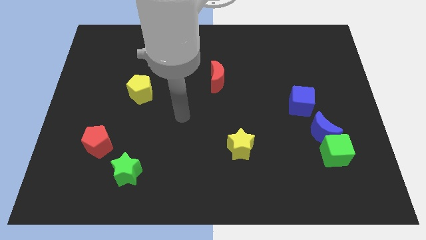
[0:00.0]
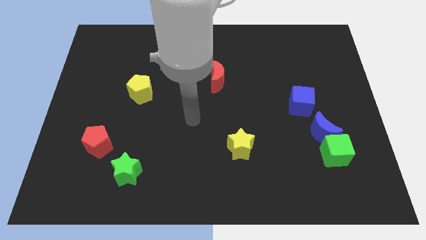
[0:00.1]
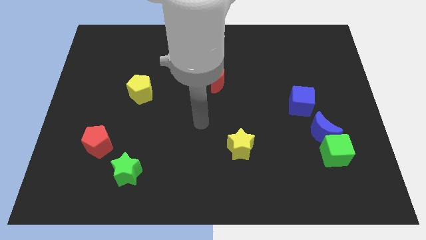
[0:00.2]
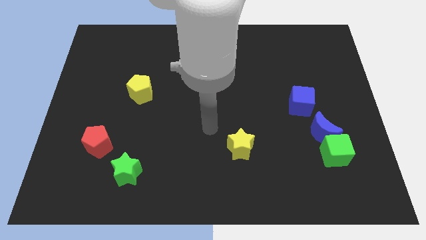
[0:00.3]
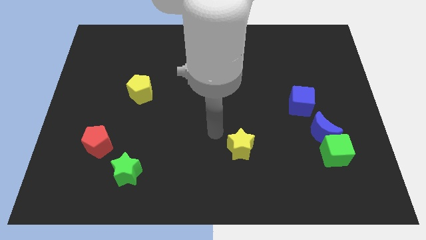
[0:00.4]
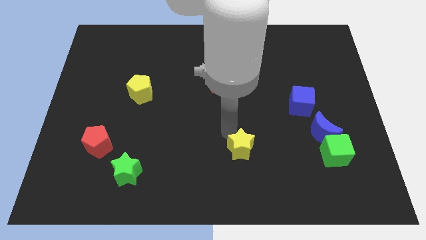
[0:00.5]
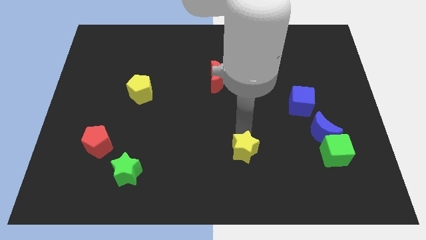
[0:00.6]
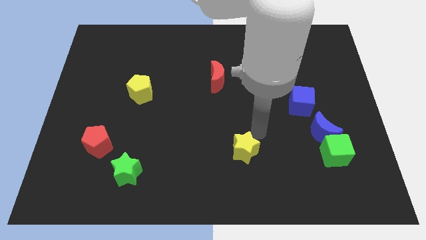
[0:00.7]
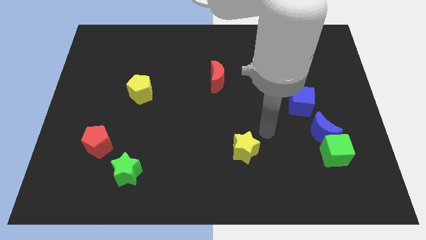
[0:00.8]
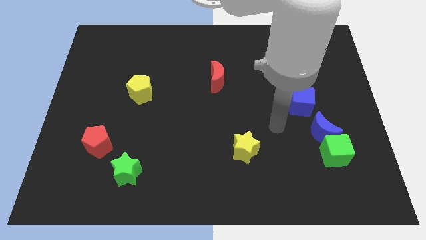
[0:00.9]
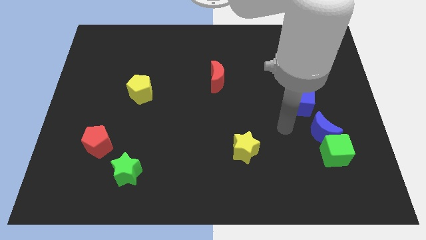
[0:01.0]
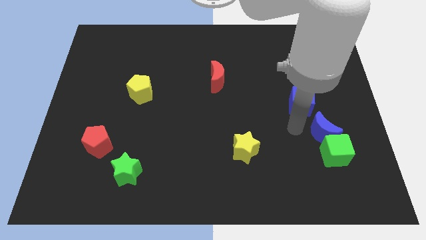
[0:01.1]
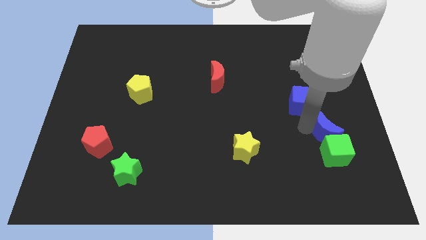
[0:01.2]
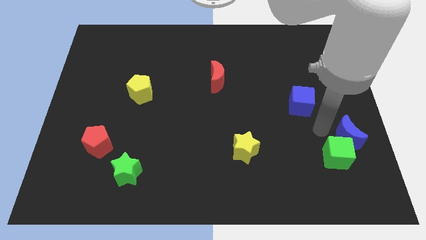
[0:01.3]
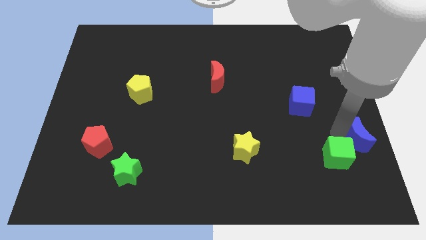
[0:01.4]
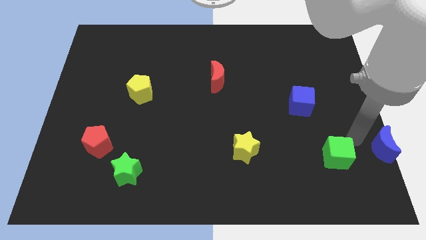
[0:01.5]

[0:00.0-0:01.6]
move the green cube away from the blue moon

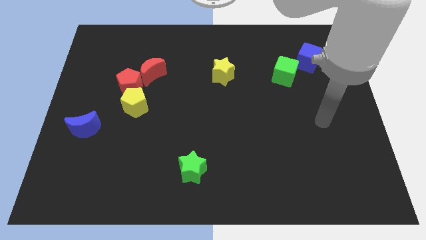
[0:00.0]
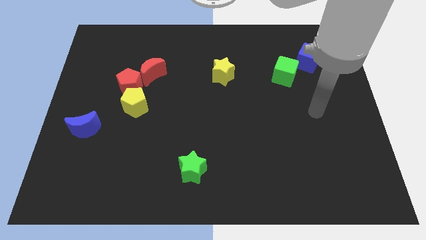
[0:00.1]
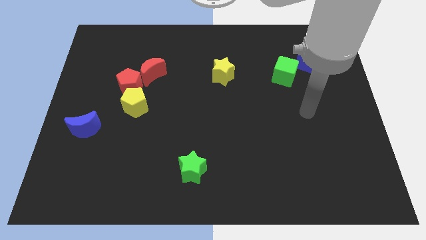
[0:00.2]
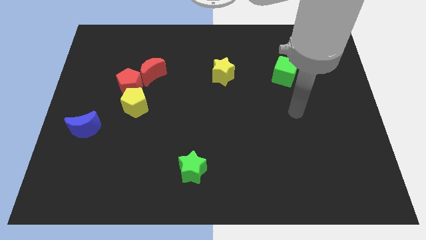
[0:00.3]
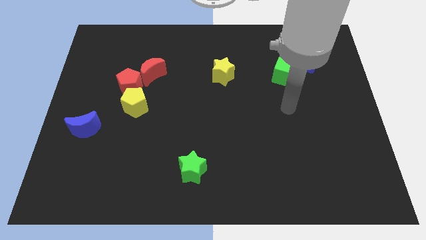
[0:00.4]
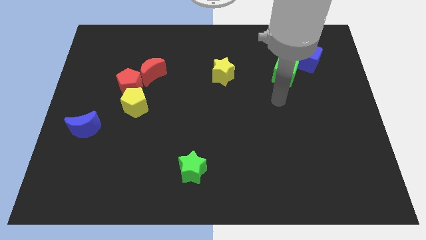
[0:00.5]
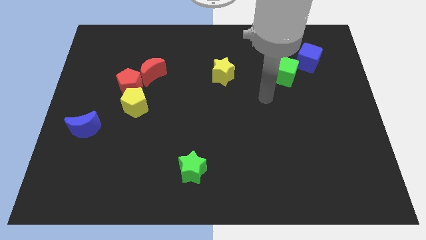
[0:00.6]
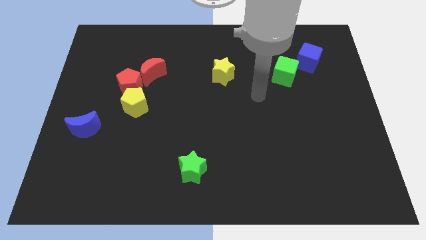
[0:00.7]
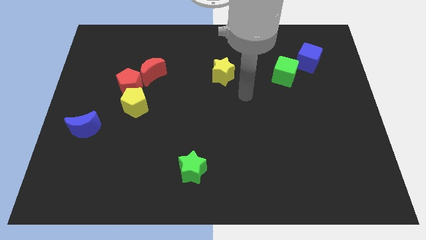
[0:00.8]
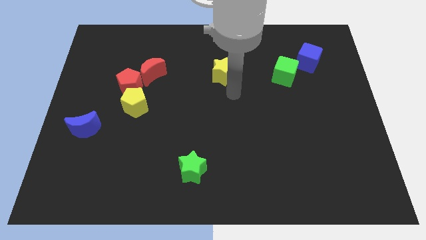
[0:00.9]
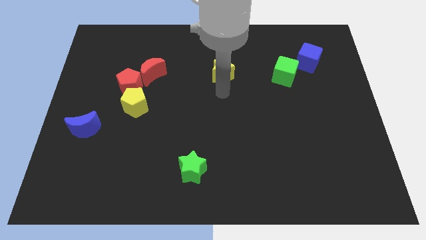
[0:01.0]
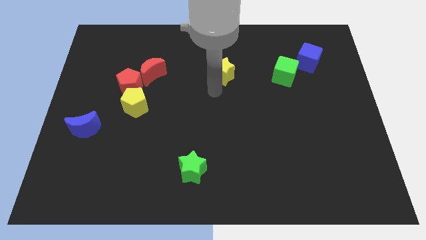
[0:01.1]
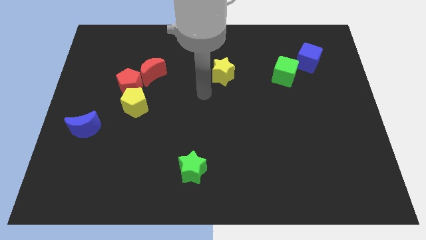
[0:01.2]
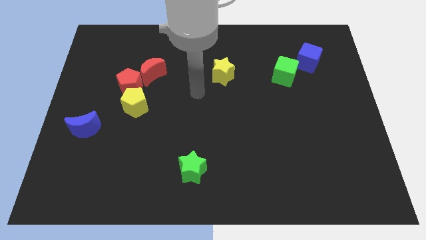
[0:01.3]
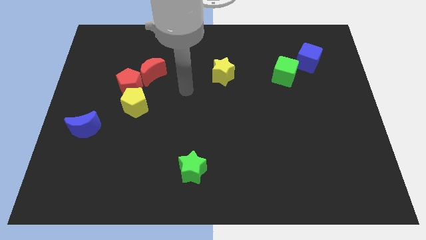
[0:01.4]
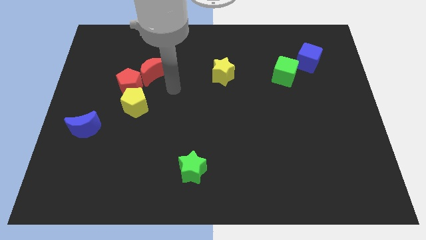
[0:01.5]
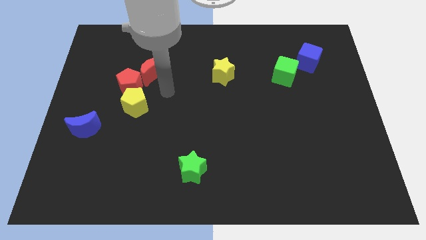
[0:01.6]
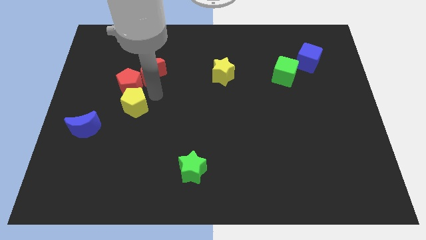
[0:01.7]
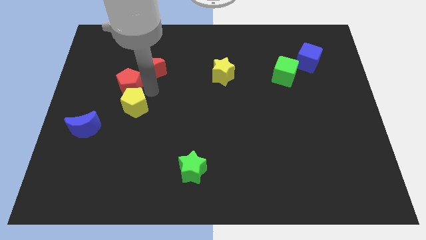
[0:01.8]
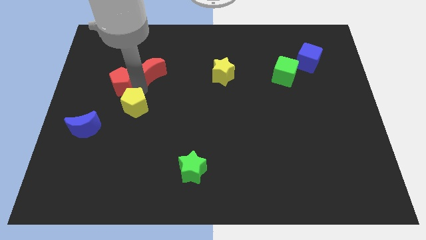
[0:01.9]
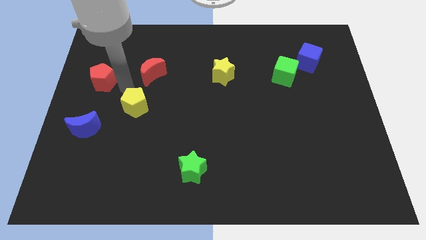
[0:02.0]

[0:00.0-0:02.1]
pull the yellow pentagon apart from the red pentagon

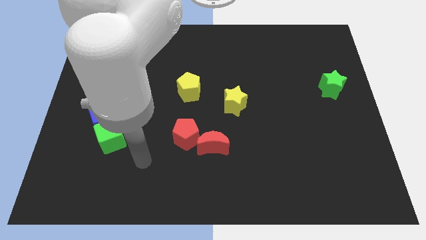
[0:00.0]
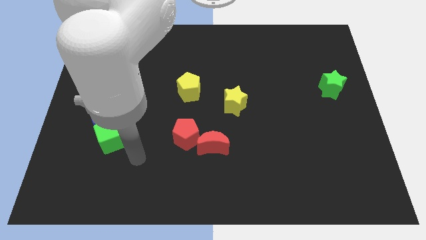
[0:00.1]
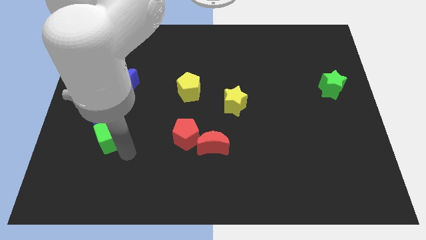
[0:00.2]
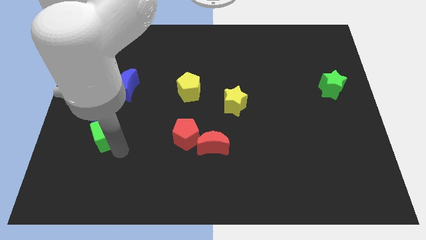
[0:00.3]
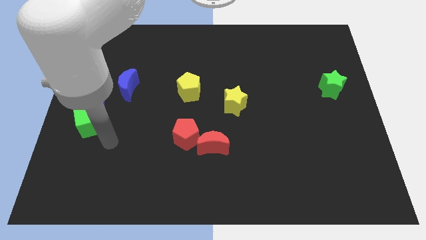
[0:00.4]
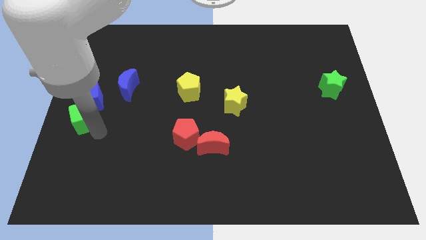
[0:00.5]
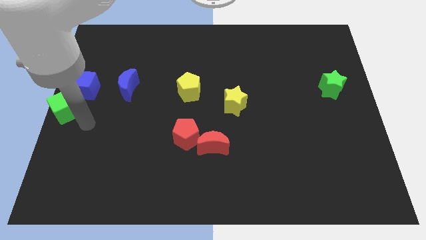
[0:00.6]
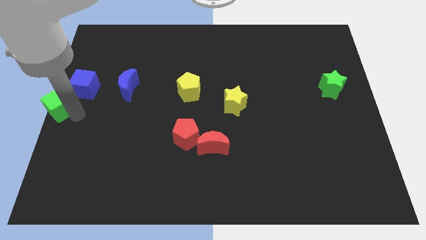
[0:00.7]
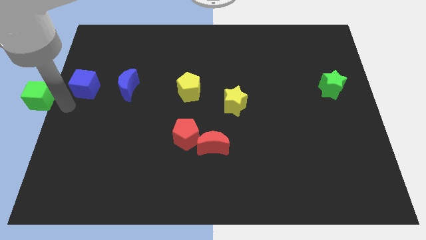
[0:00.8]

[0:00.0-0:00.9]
separate the blue cube from the green cube

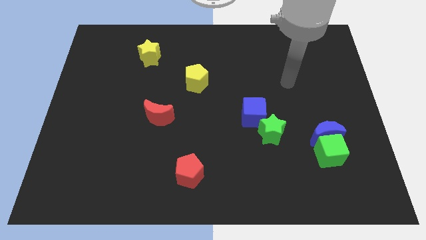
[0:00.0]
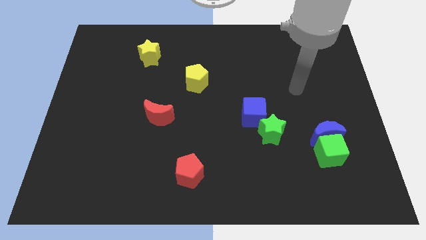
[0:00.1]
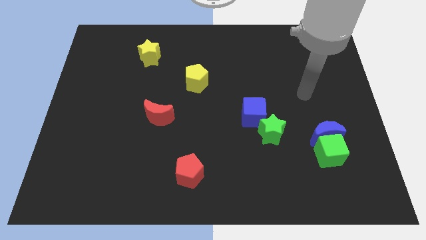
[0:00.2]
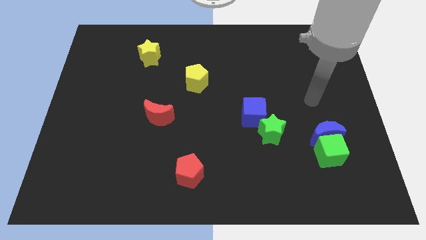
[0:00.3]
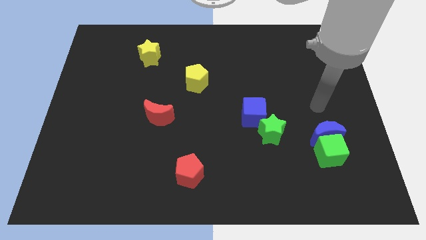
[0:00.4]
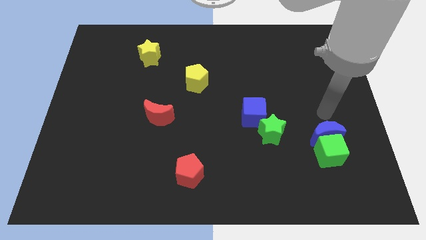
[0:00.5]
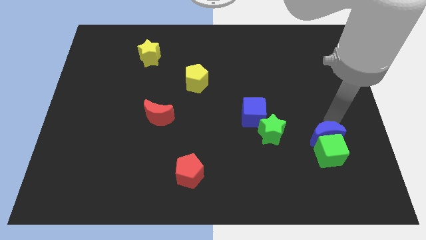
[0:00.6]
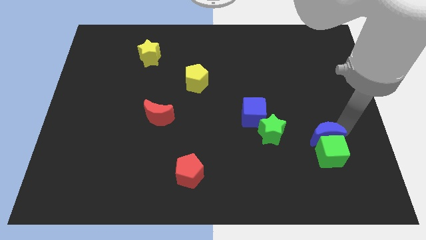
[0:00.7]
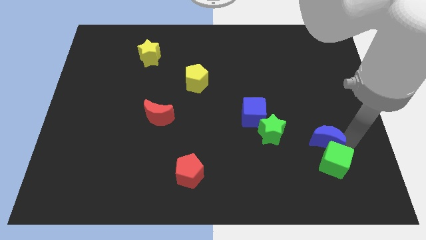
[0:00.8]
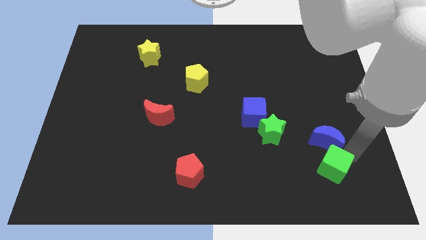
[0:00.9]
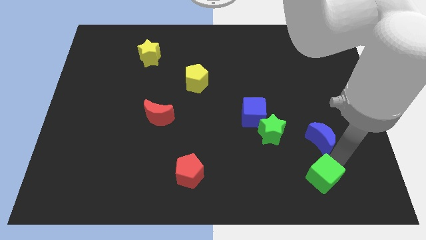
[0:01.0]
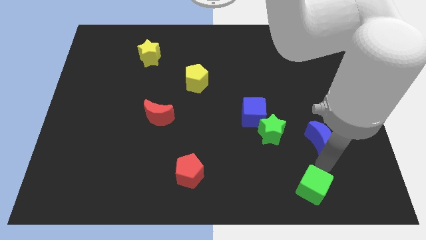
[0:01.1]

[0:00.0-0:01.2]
pull the blue moon apart from the green cube

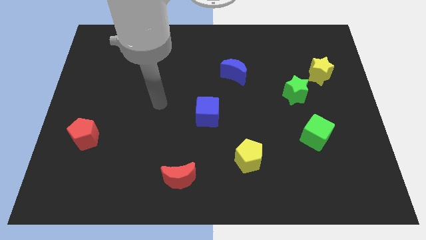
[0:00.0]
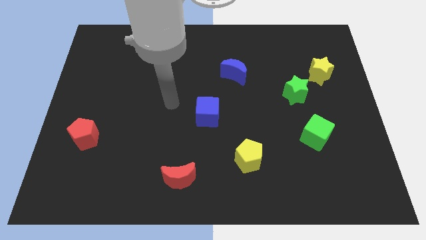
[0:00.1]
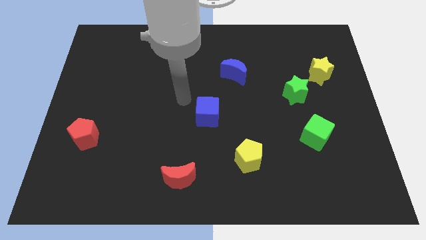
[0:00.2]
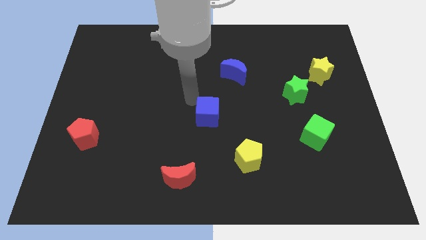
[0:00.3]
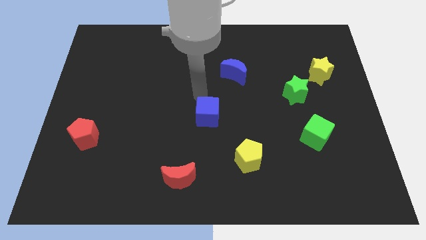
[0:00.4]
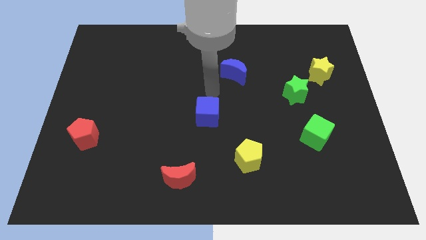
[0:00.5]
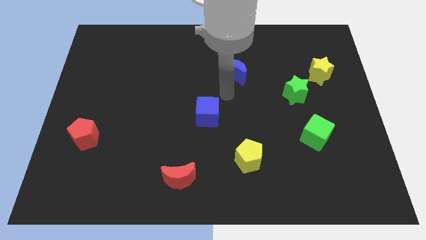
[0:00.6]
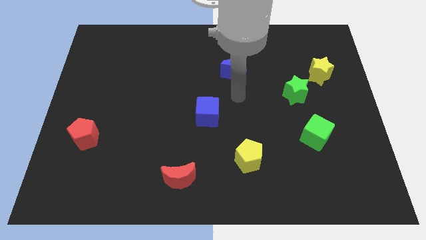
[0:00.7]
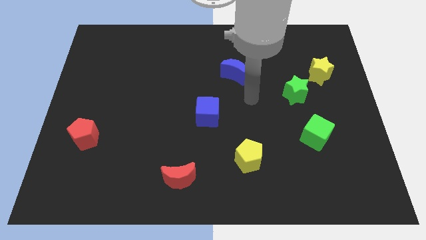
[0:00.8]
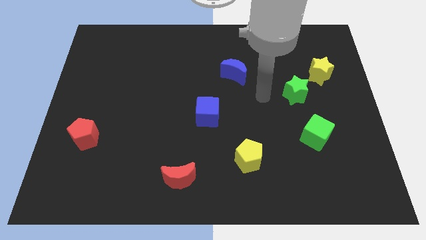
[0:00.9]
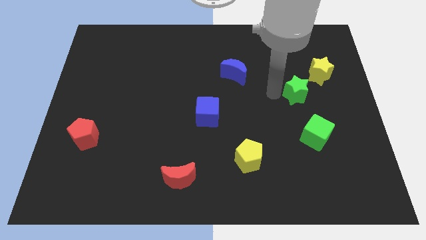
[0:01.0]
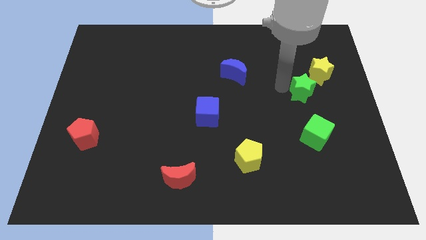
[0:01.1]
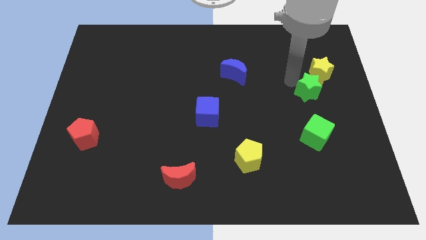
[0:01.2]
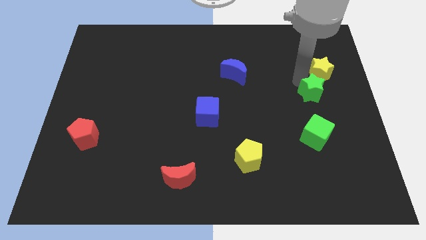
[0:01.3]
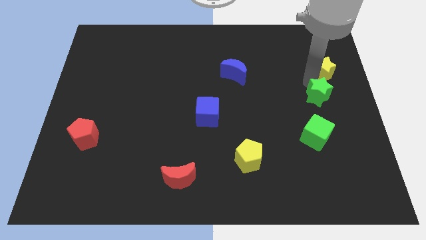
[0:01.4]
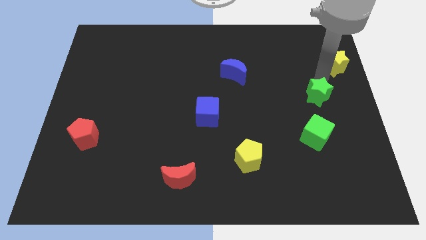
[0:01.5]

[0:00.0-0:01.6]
pull the green star apart from the yellow star

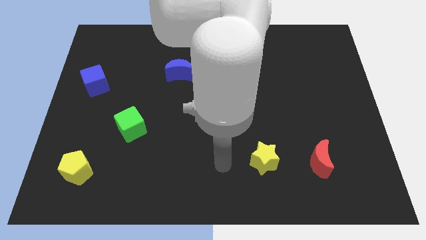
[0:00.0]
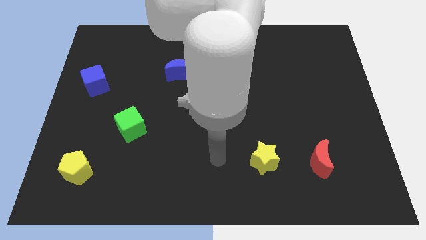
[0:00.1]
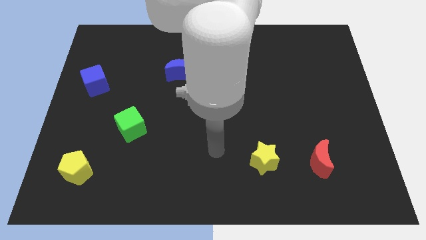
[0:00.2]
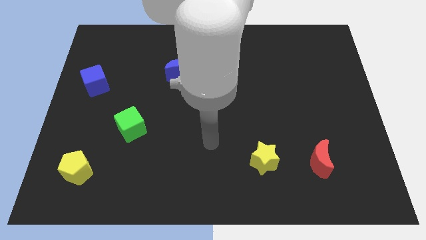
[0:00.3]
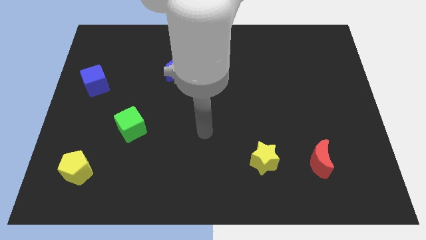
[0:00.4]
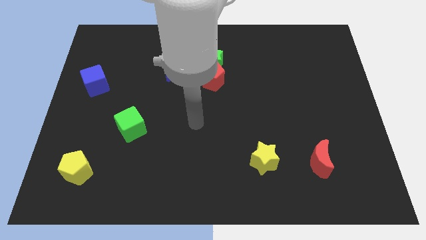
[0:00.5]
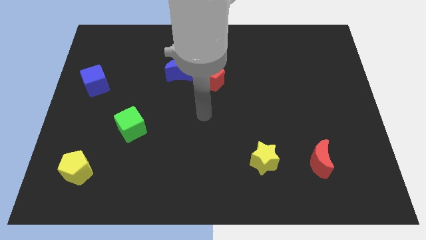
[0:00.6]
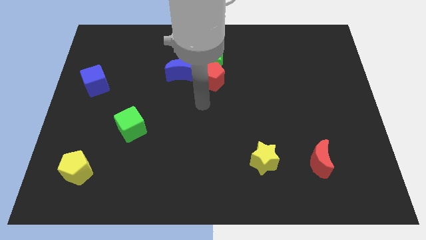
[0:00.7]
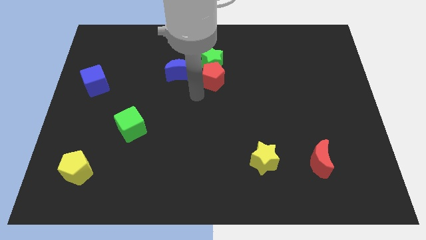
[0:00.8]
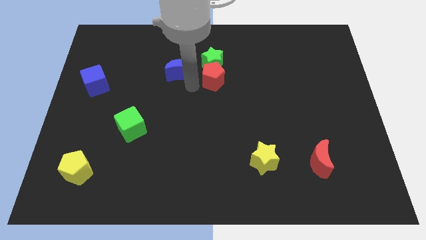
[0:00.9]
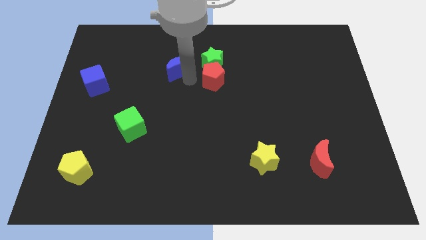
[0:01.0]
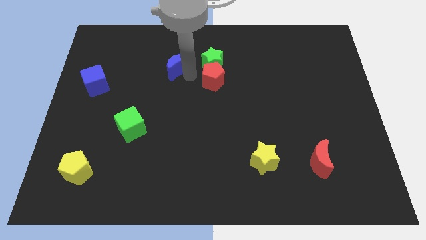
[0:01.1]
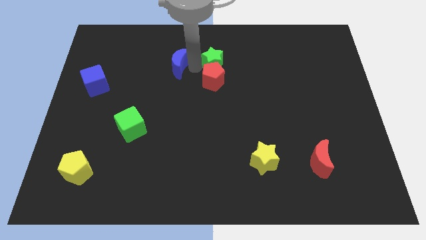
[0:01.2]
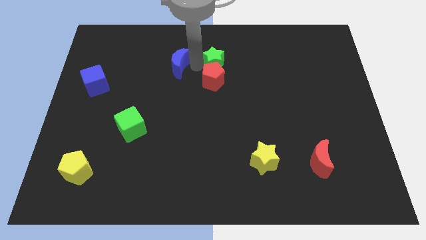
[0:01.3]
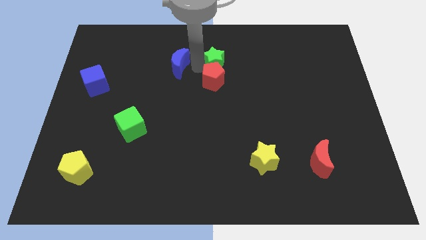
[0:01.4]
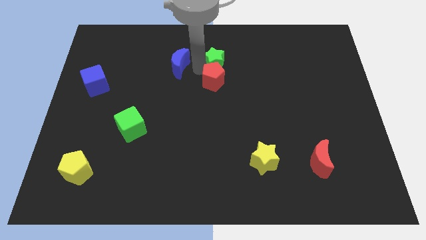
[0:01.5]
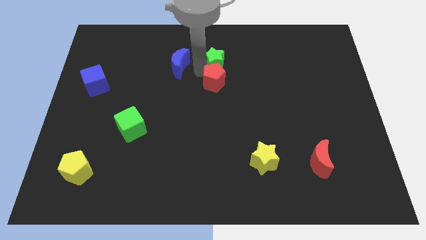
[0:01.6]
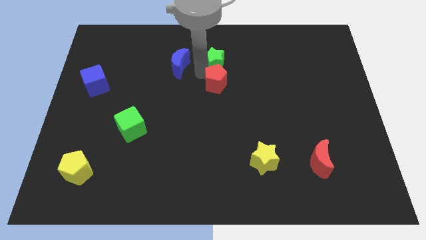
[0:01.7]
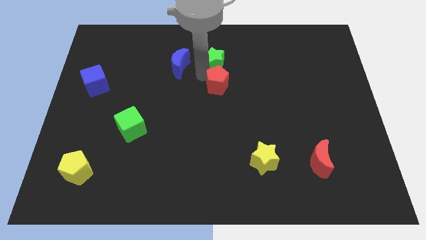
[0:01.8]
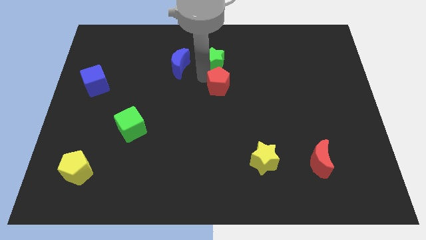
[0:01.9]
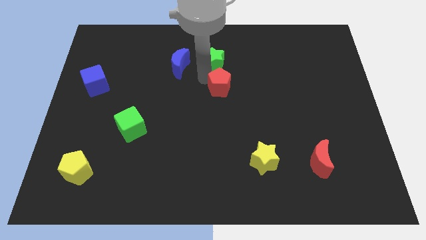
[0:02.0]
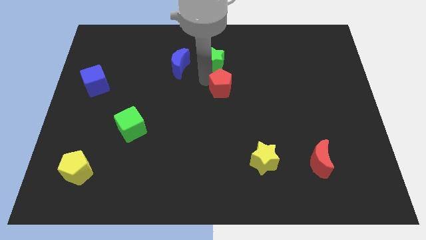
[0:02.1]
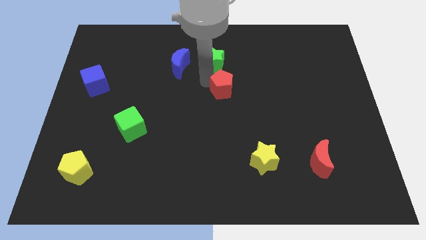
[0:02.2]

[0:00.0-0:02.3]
separate the red pentagon from the green star and blue moon
